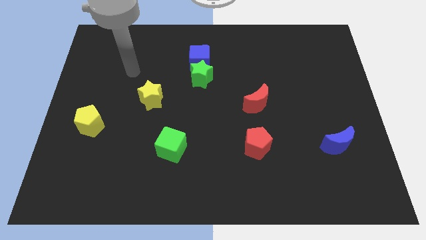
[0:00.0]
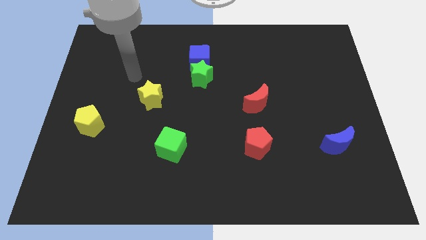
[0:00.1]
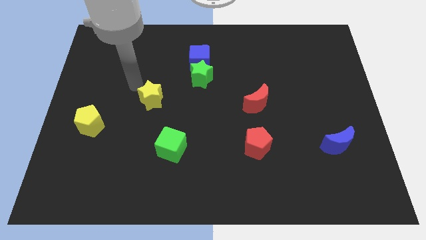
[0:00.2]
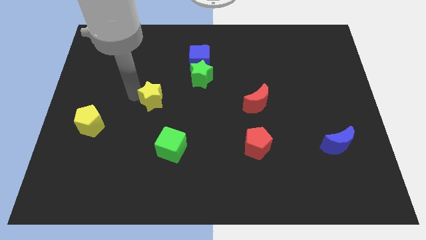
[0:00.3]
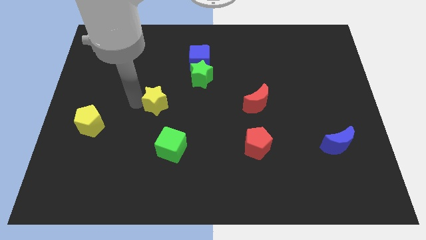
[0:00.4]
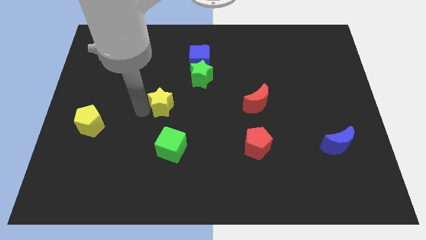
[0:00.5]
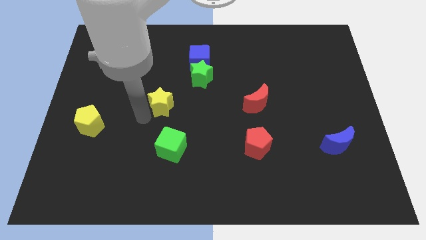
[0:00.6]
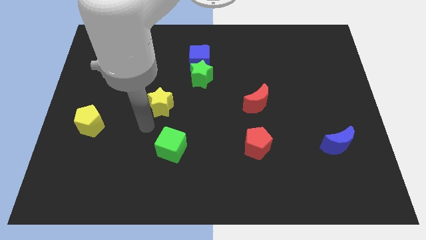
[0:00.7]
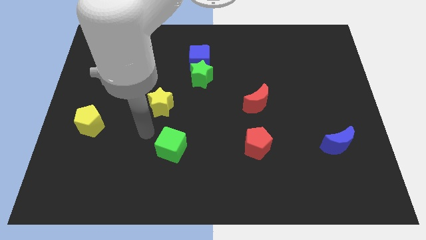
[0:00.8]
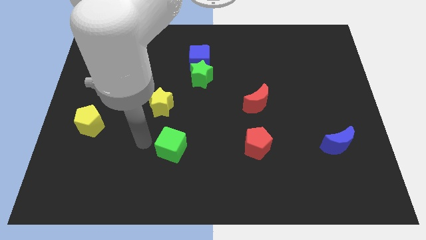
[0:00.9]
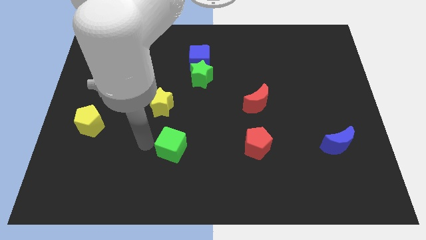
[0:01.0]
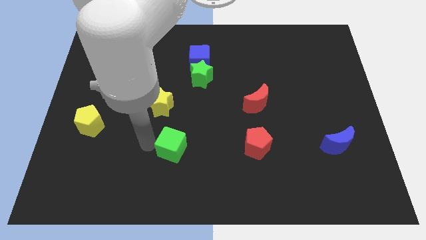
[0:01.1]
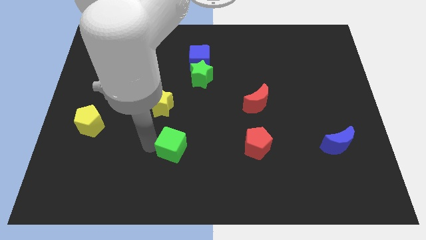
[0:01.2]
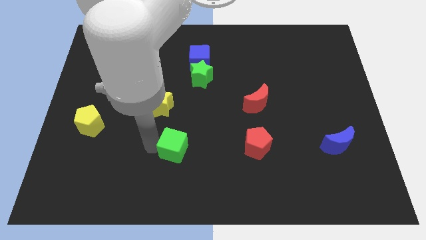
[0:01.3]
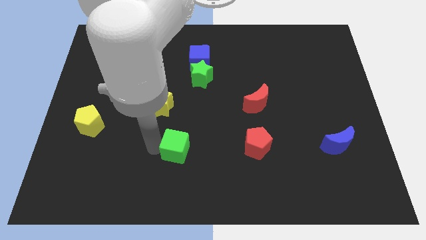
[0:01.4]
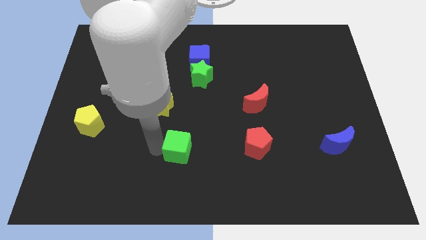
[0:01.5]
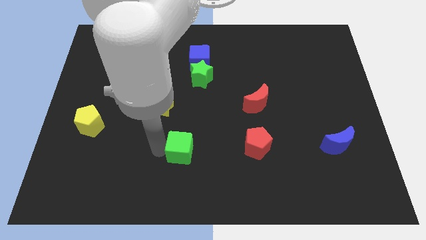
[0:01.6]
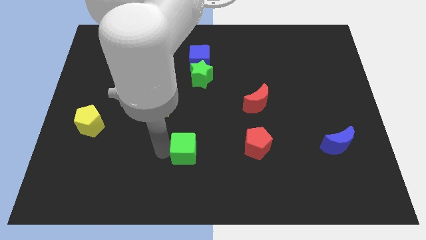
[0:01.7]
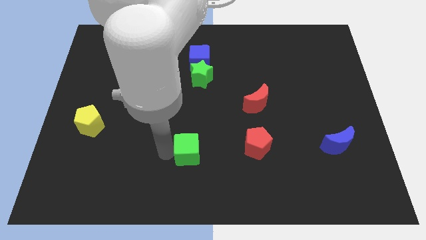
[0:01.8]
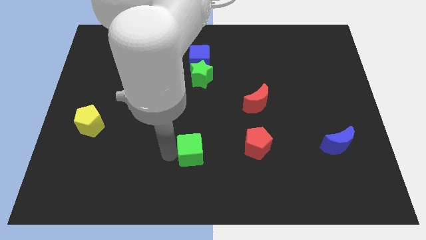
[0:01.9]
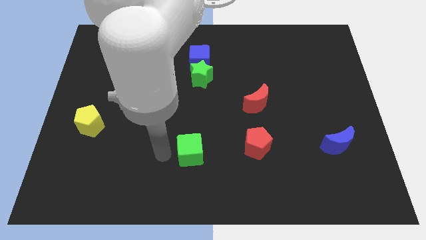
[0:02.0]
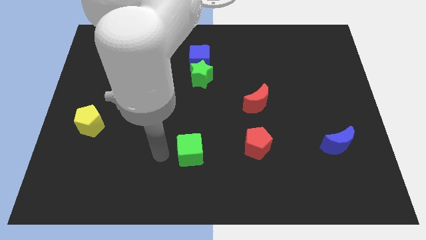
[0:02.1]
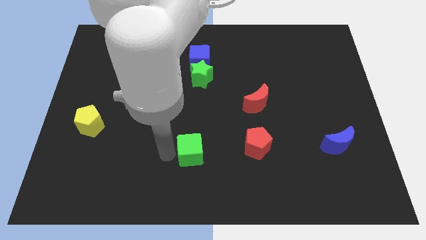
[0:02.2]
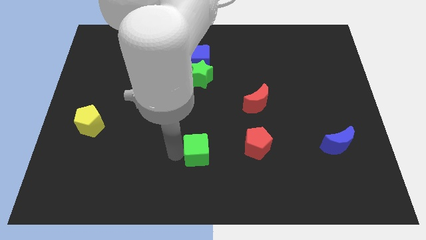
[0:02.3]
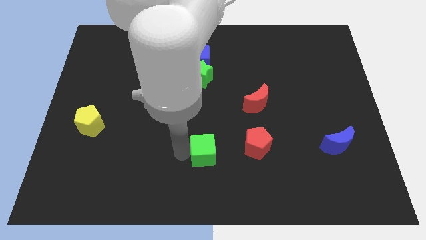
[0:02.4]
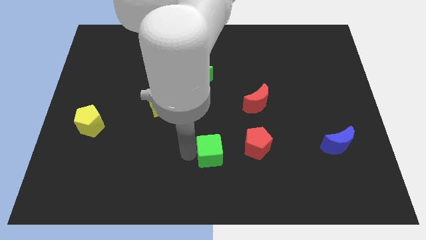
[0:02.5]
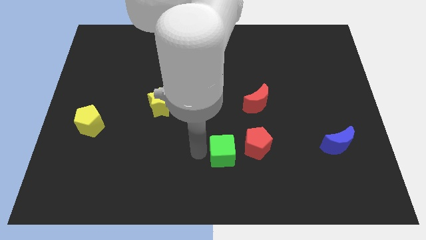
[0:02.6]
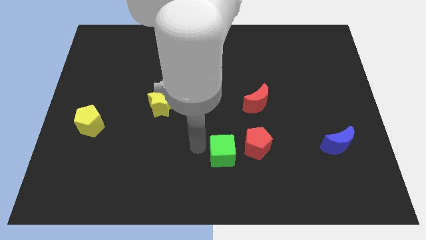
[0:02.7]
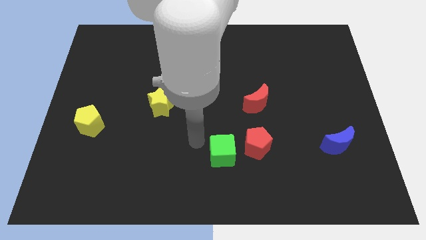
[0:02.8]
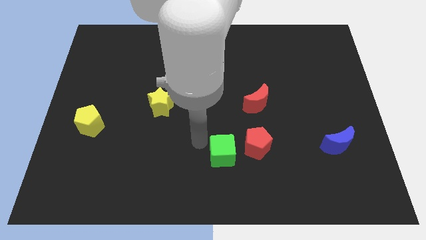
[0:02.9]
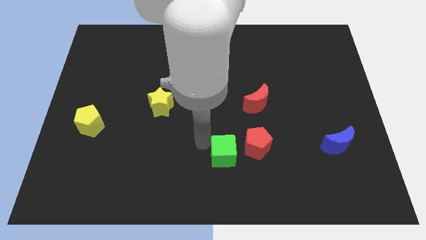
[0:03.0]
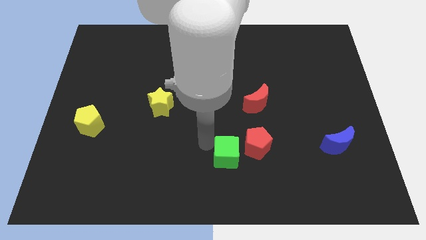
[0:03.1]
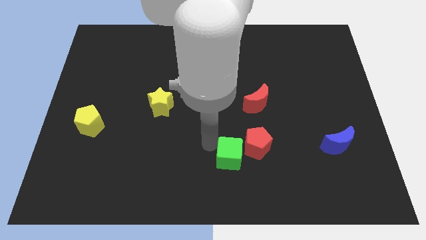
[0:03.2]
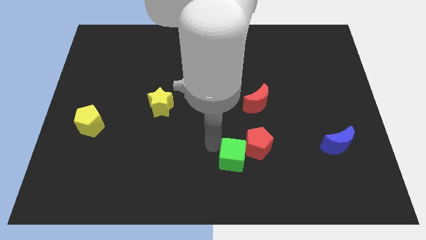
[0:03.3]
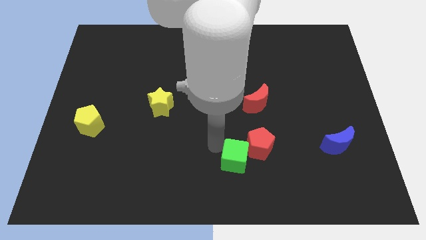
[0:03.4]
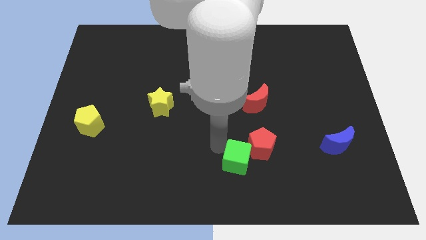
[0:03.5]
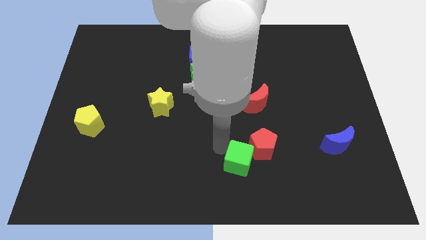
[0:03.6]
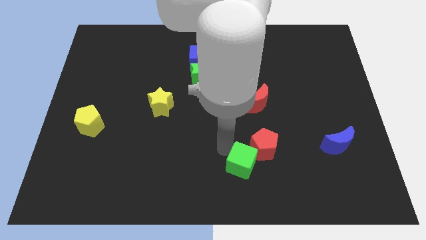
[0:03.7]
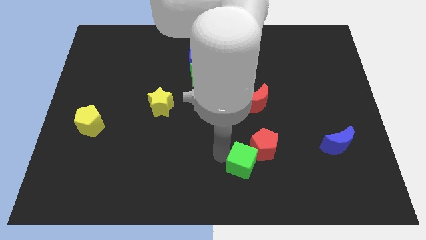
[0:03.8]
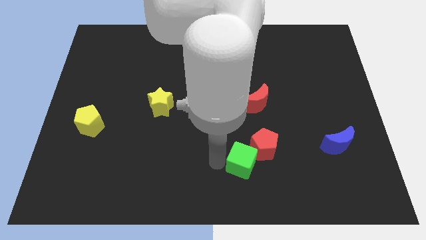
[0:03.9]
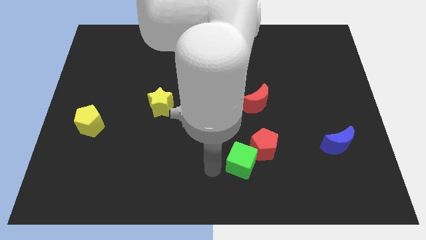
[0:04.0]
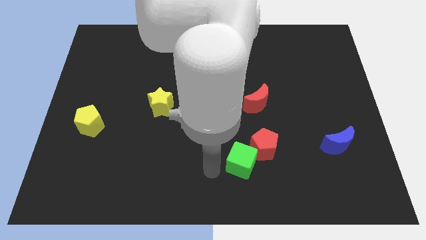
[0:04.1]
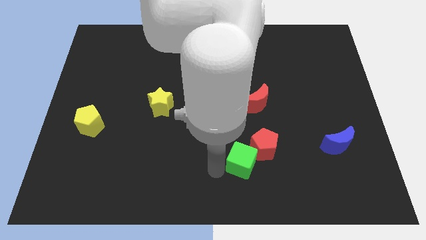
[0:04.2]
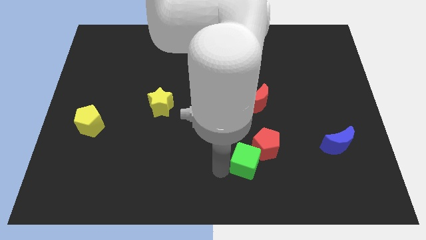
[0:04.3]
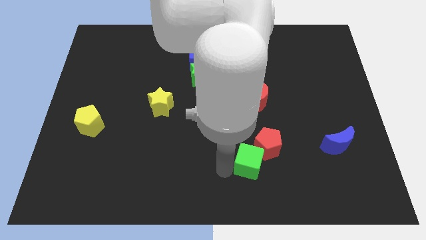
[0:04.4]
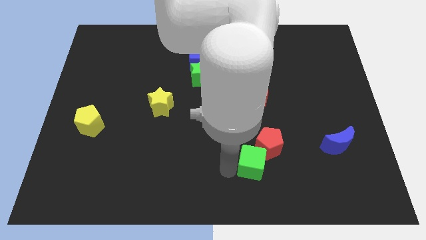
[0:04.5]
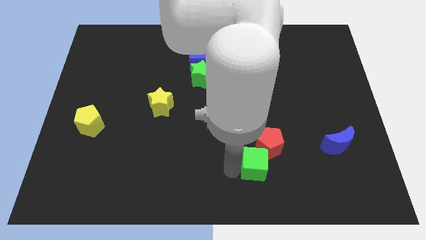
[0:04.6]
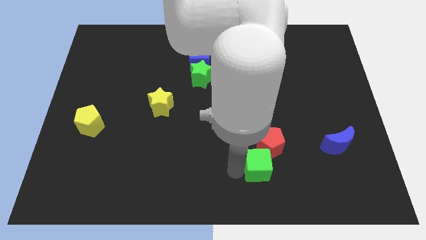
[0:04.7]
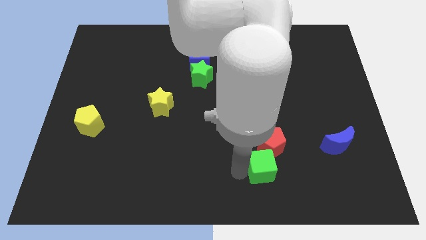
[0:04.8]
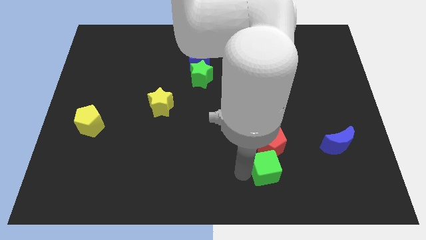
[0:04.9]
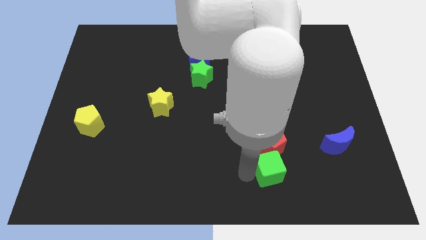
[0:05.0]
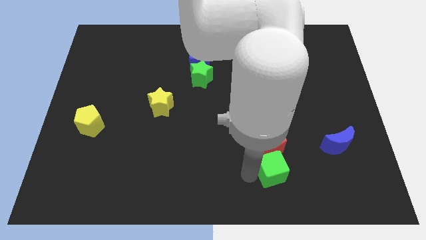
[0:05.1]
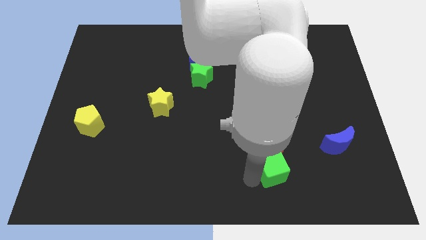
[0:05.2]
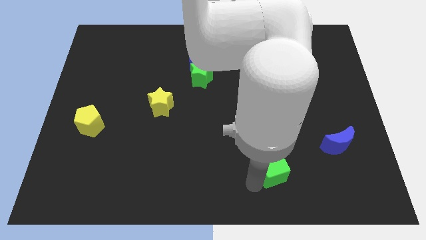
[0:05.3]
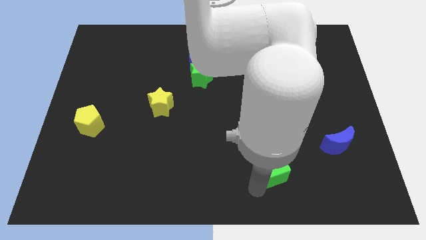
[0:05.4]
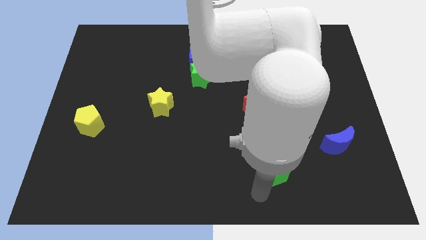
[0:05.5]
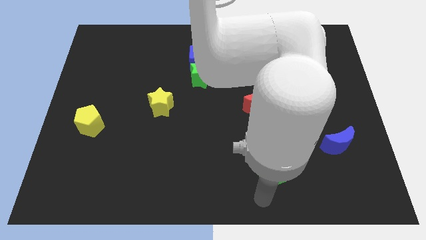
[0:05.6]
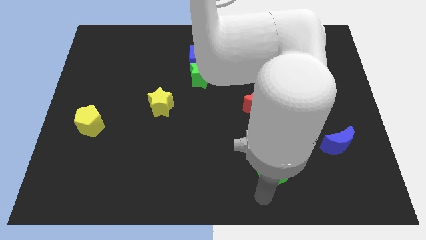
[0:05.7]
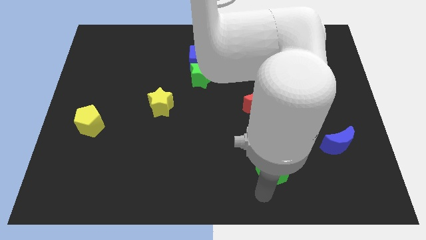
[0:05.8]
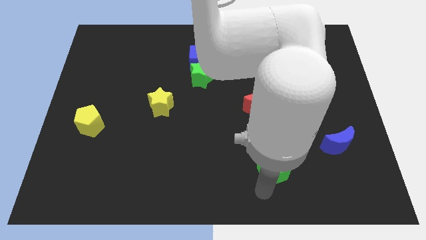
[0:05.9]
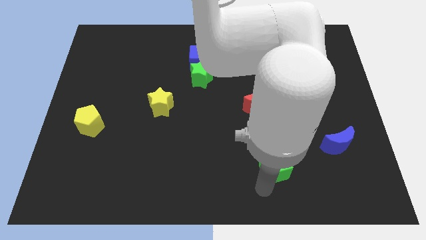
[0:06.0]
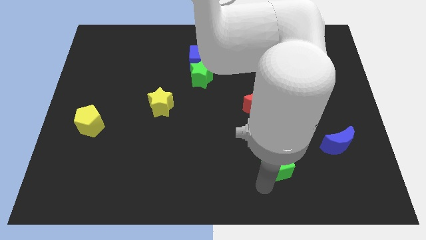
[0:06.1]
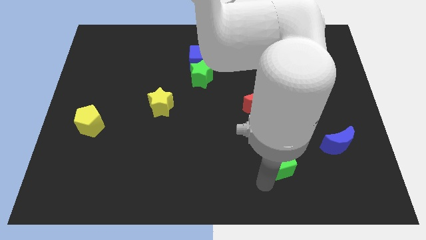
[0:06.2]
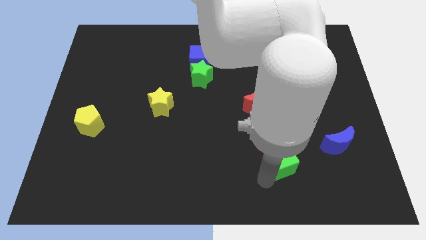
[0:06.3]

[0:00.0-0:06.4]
move the green cube left of the blue moon

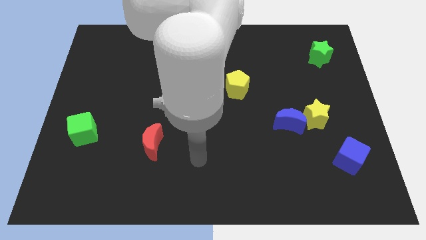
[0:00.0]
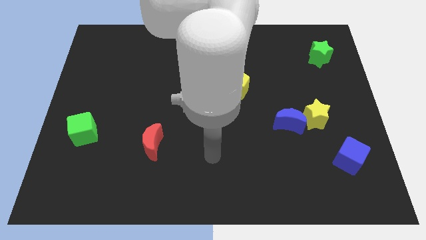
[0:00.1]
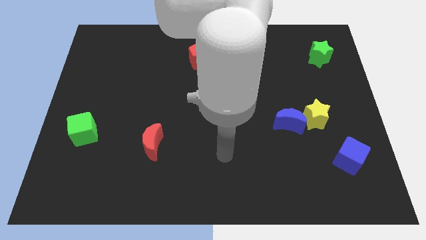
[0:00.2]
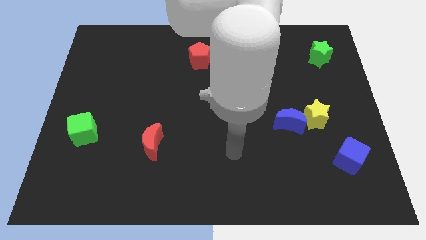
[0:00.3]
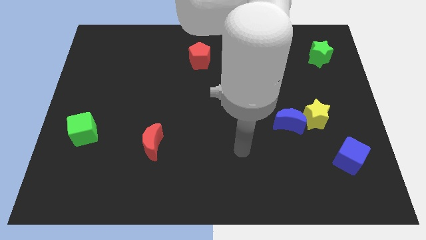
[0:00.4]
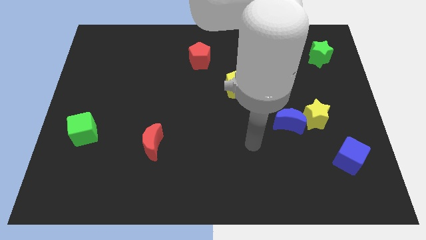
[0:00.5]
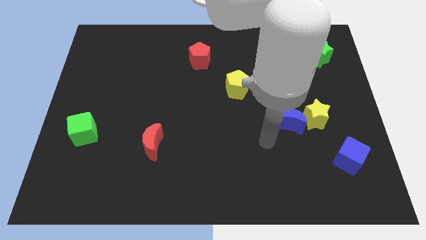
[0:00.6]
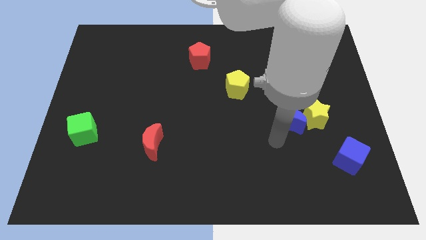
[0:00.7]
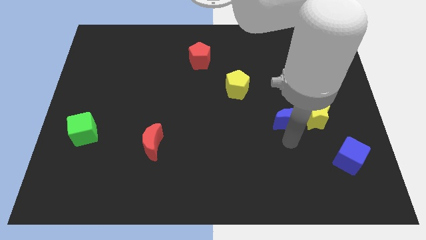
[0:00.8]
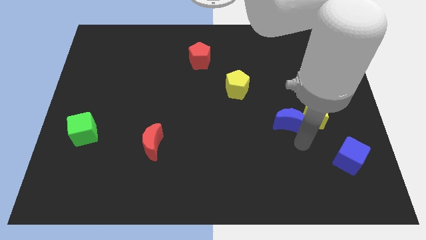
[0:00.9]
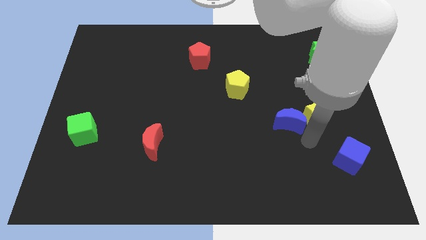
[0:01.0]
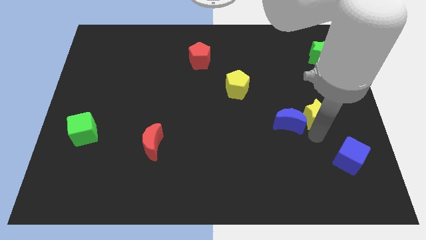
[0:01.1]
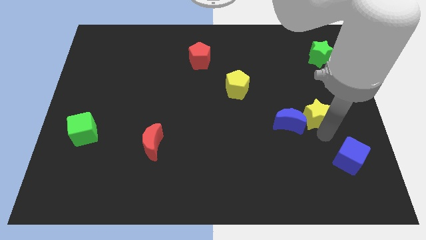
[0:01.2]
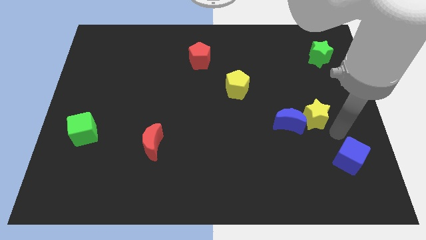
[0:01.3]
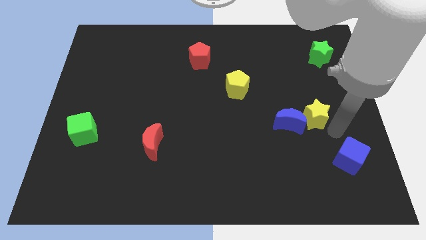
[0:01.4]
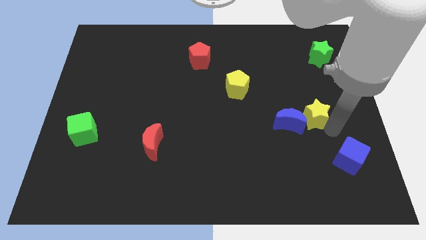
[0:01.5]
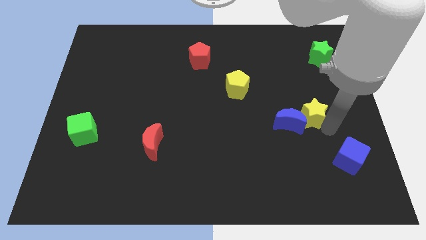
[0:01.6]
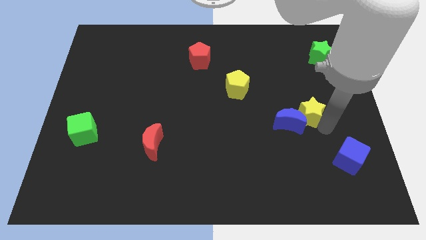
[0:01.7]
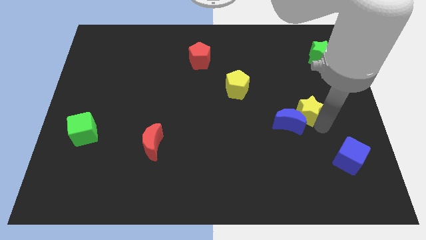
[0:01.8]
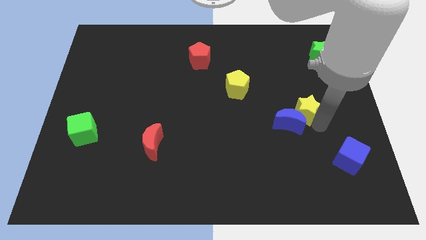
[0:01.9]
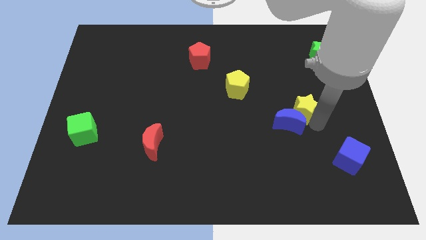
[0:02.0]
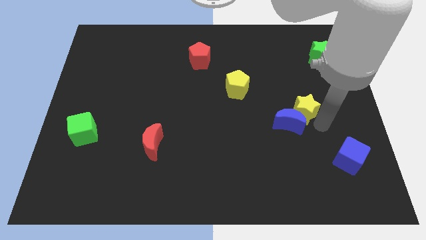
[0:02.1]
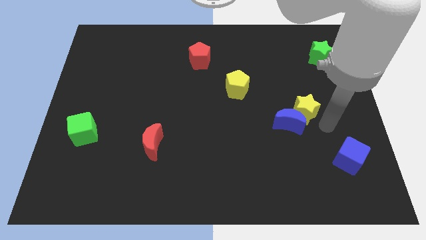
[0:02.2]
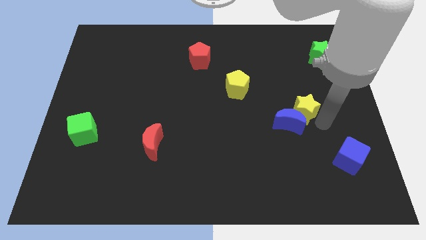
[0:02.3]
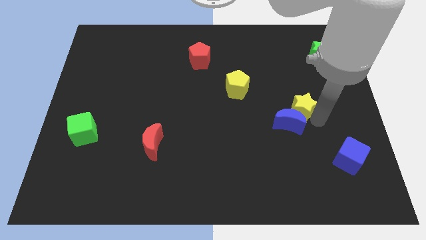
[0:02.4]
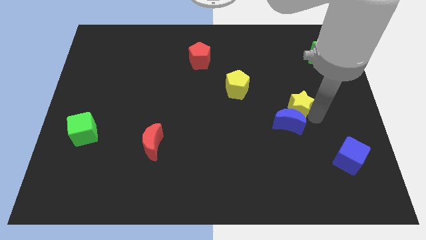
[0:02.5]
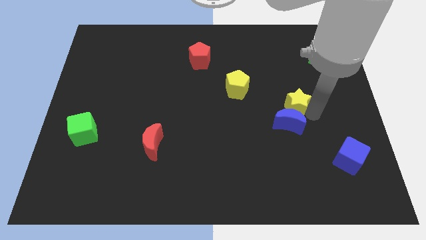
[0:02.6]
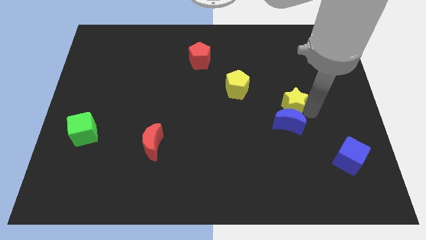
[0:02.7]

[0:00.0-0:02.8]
slide the yellow star to the top left of the blue moon
